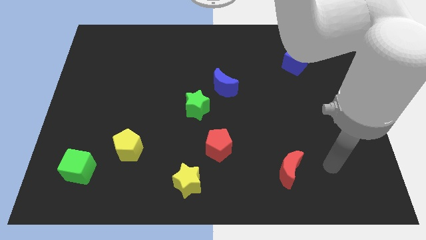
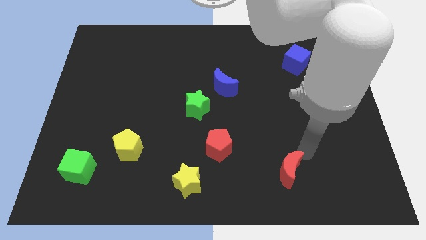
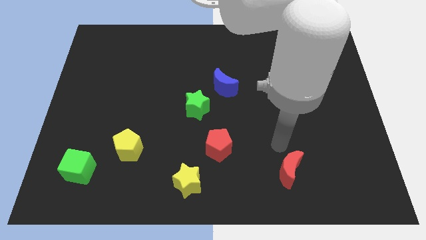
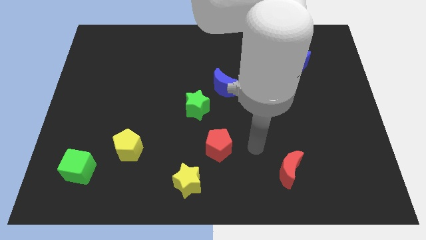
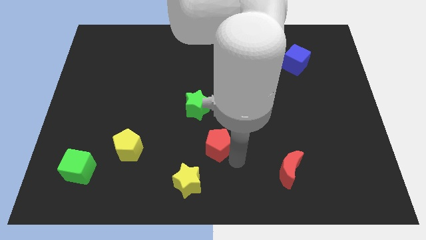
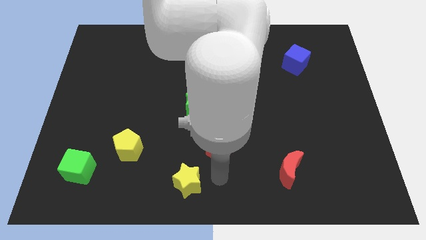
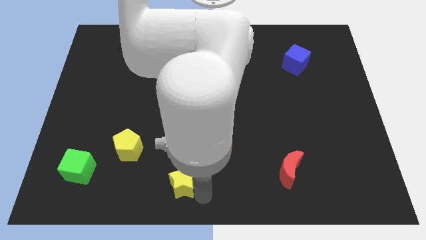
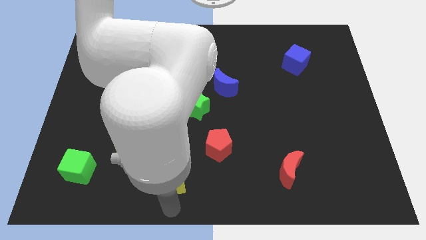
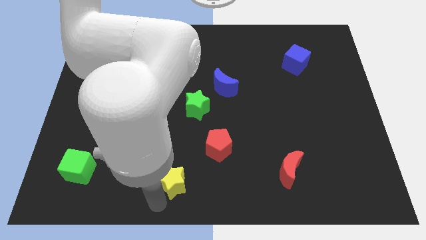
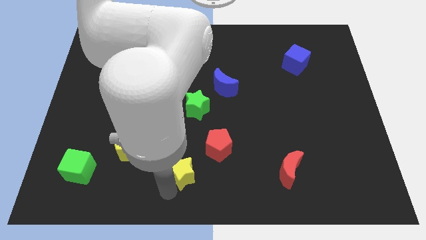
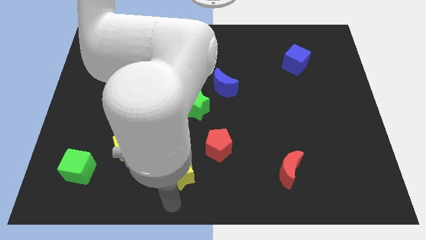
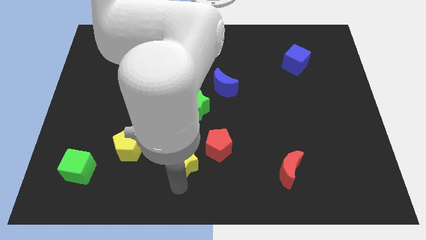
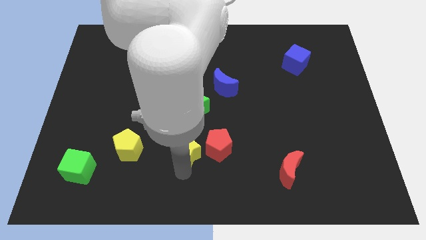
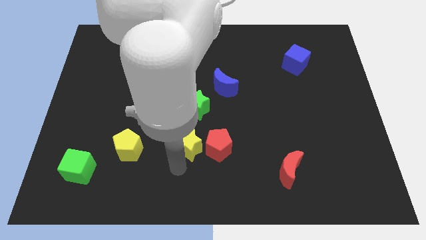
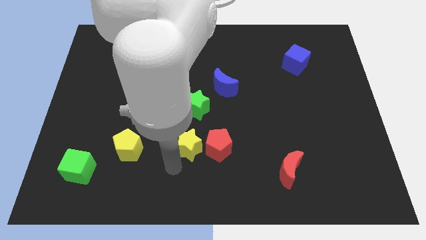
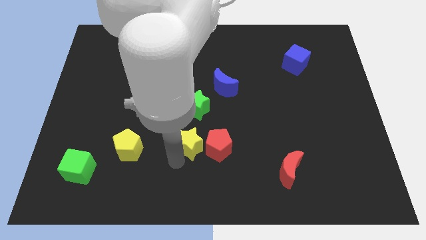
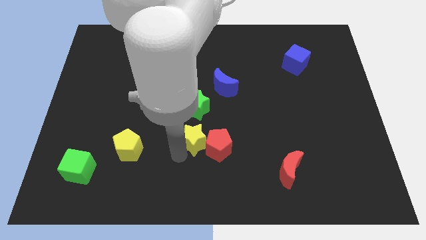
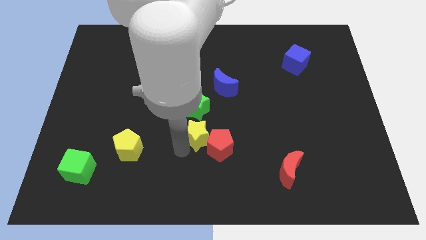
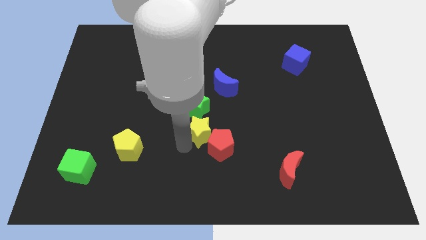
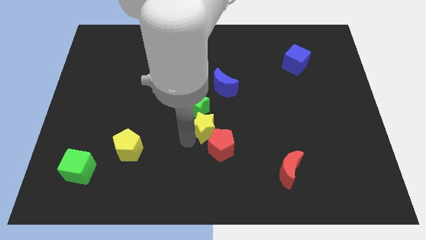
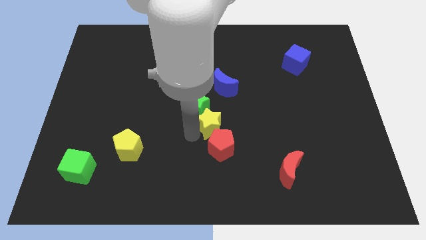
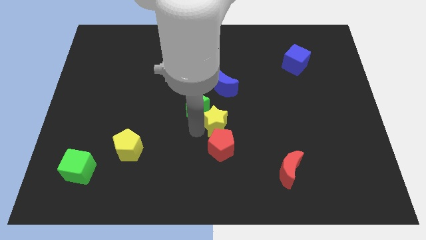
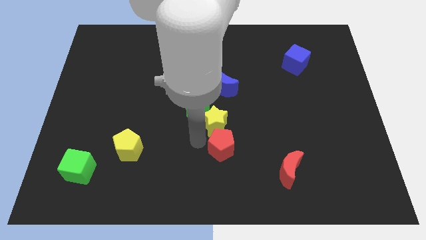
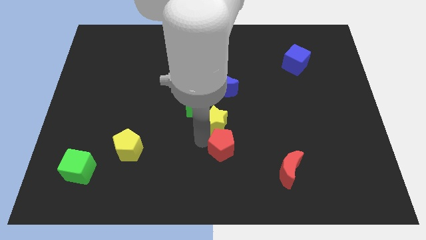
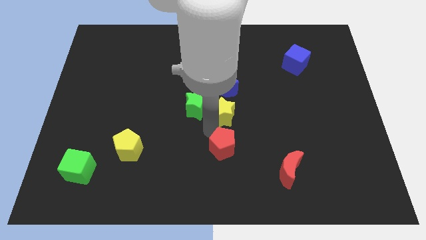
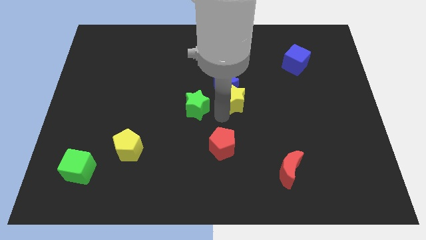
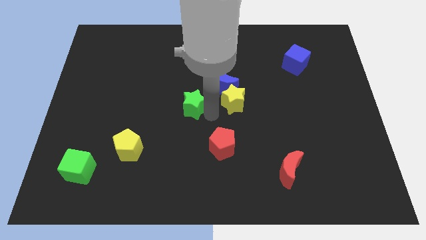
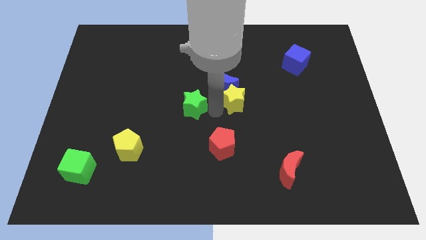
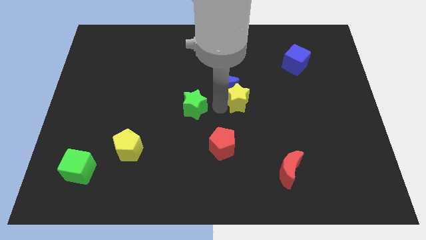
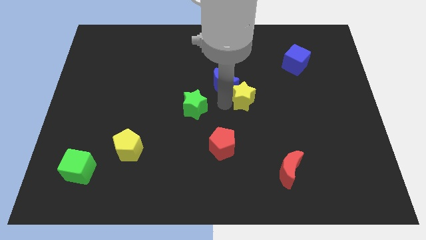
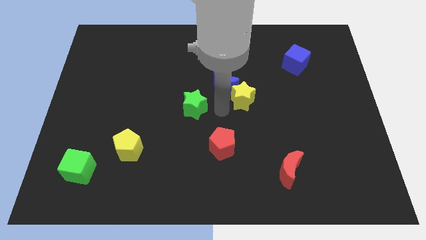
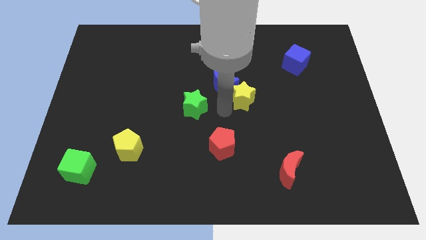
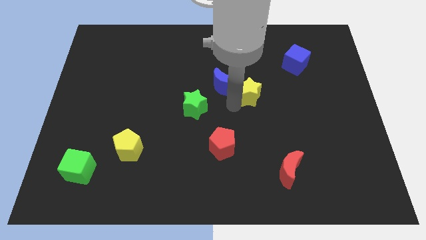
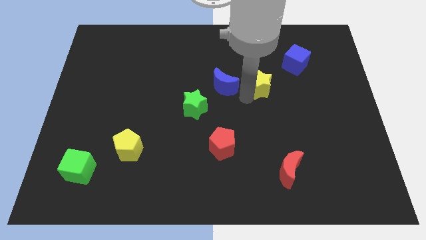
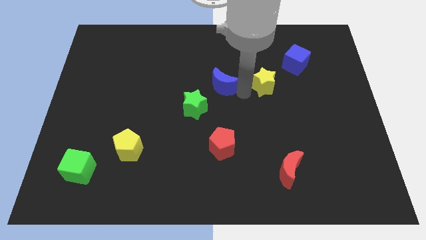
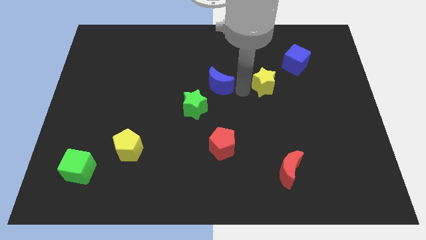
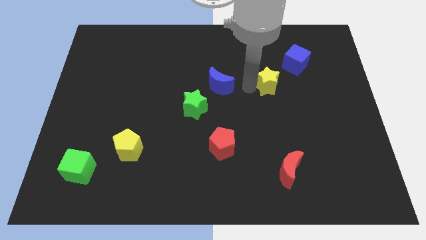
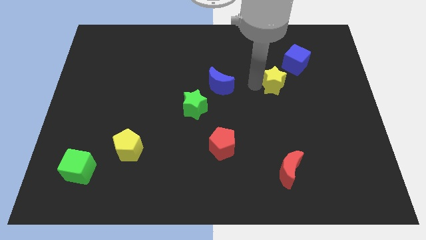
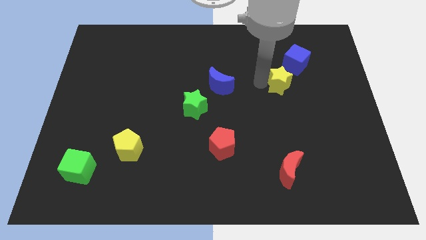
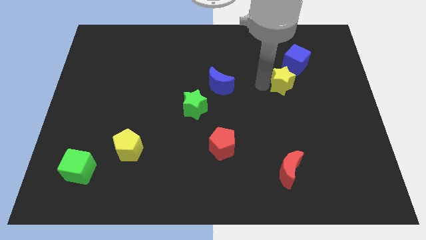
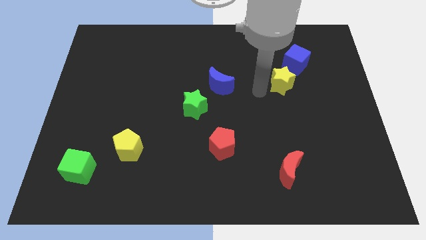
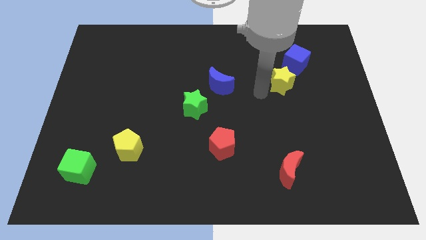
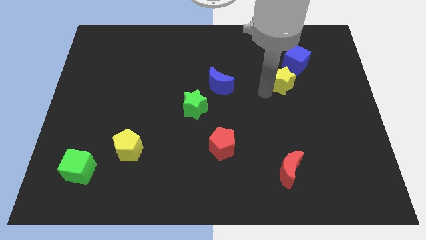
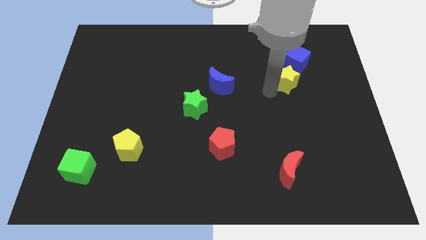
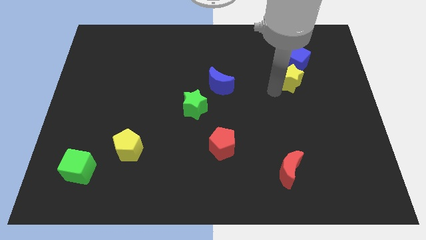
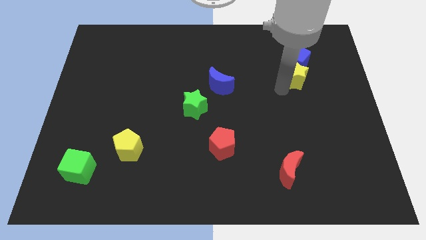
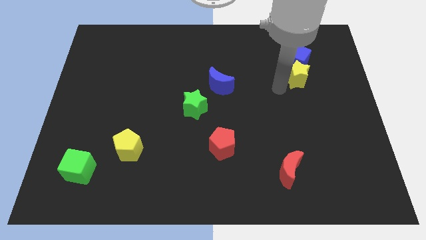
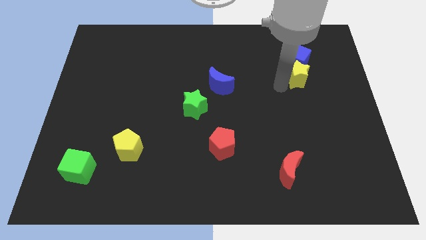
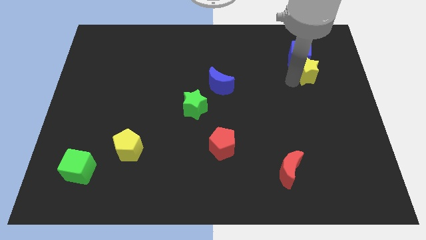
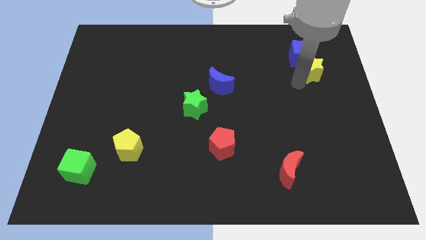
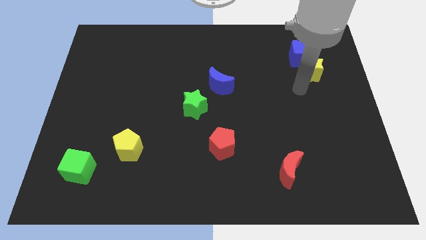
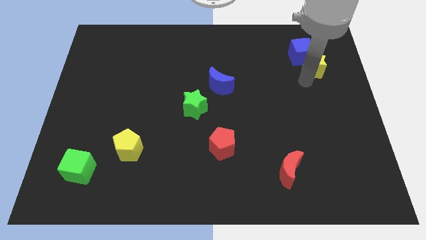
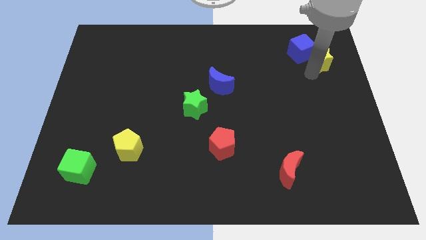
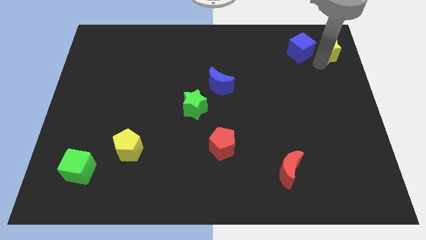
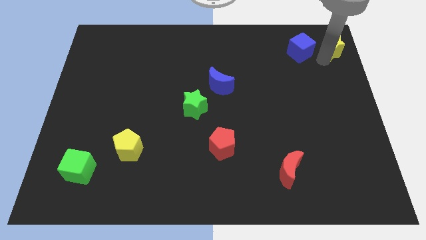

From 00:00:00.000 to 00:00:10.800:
move the yellow star to the upper right corner

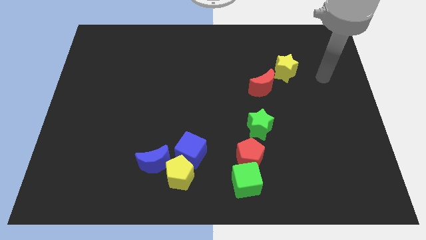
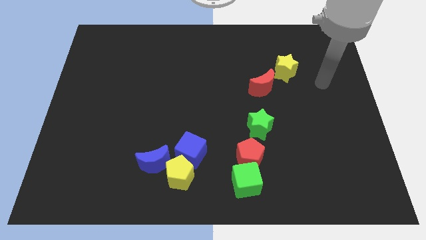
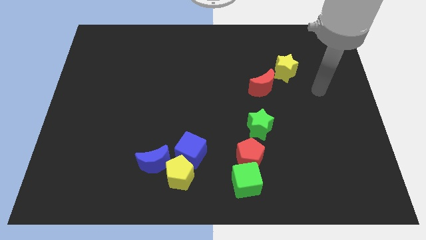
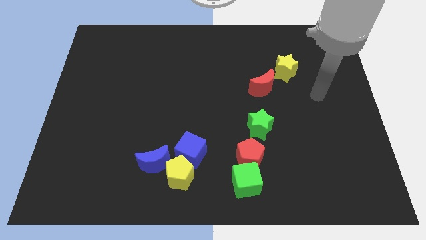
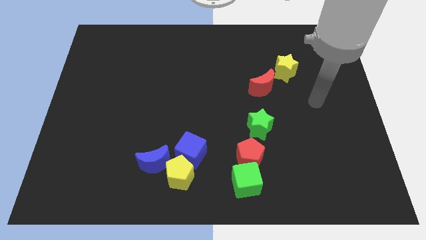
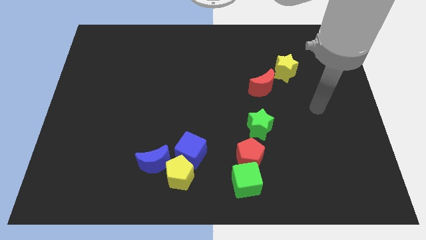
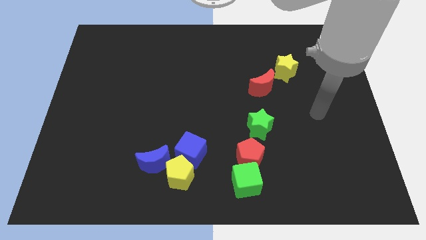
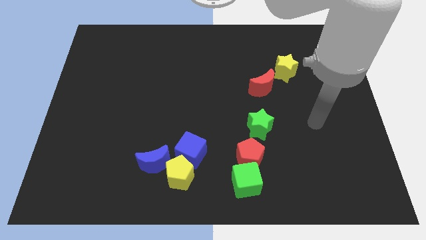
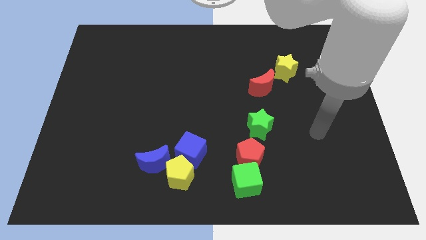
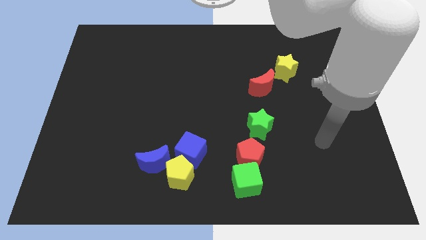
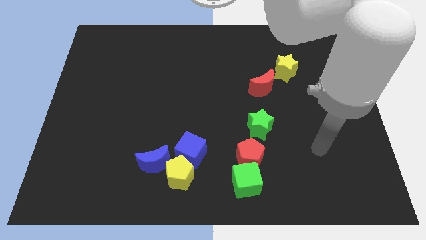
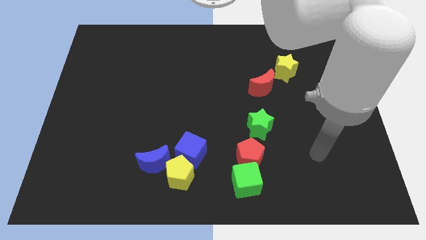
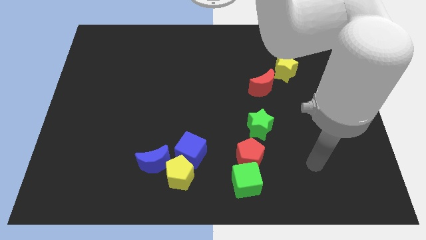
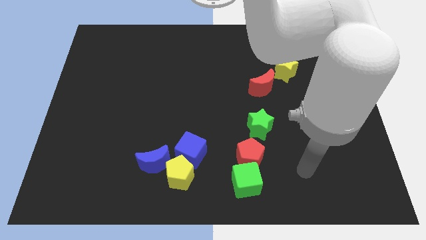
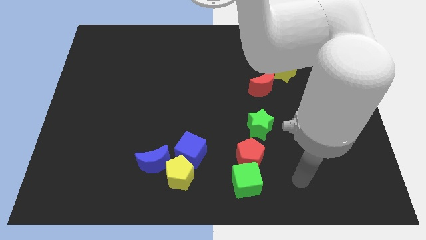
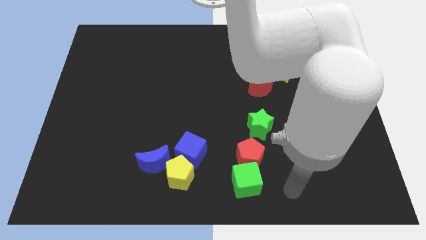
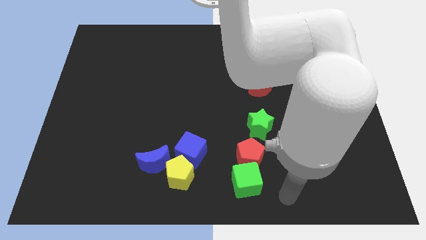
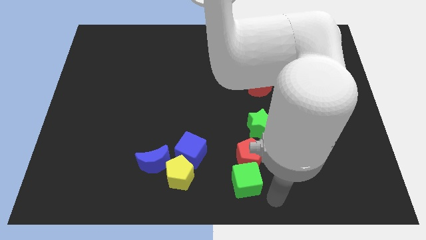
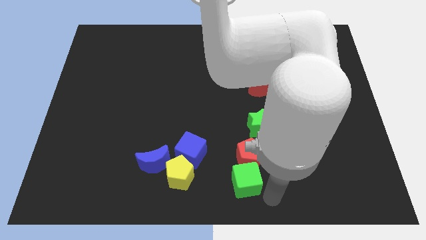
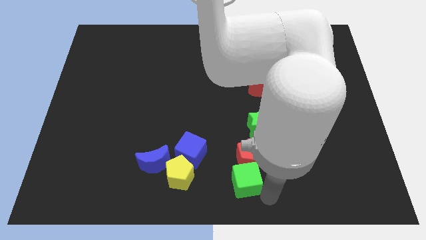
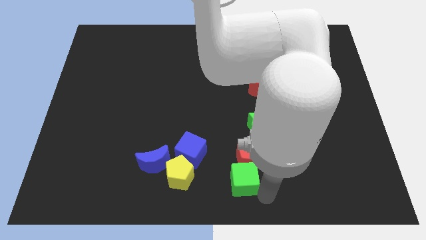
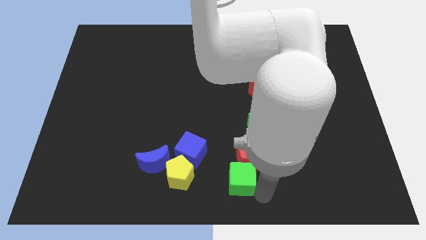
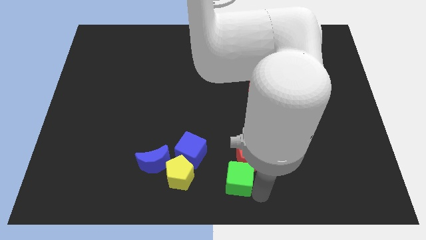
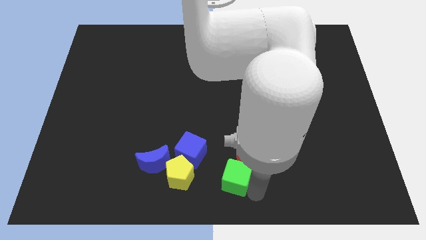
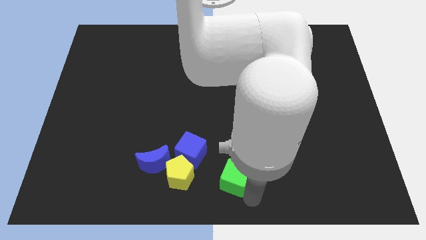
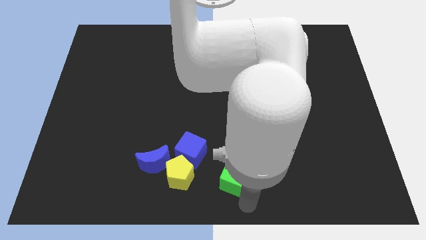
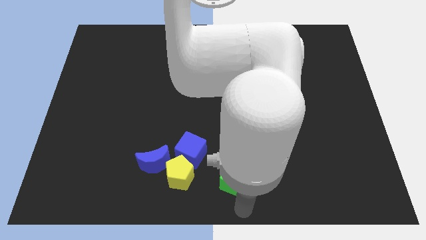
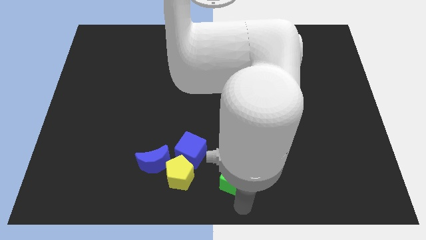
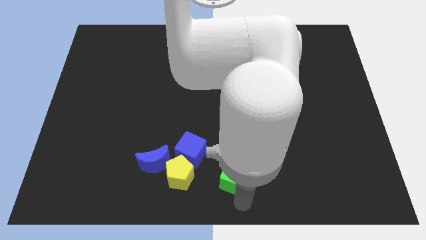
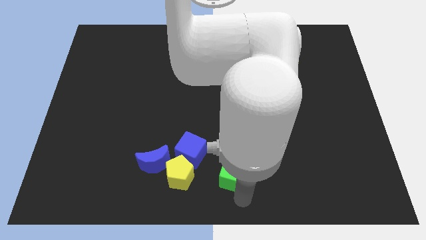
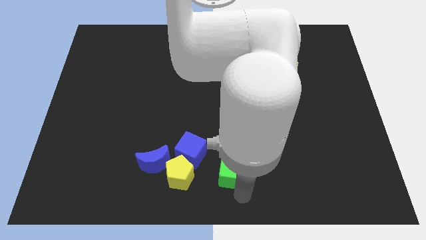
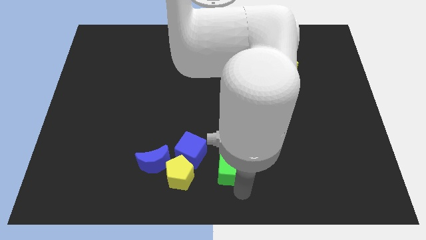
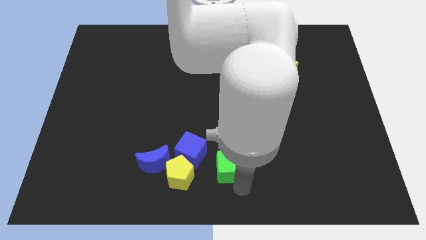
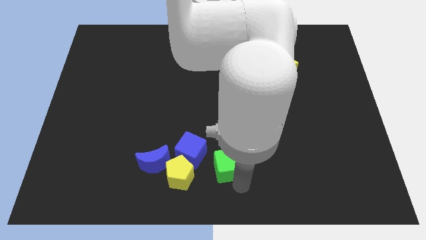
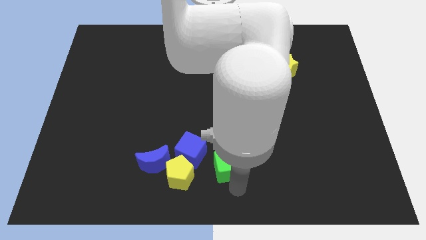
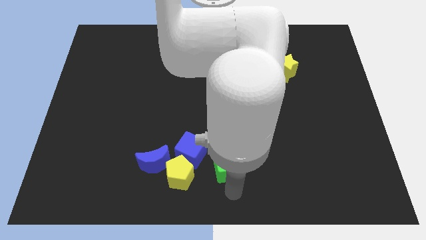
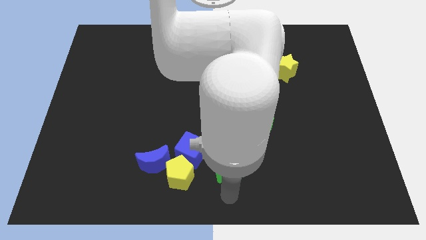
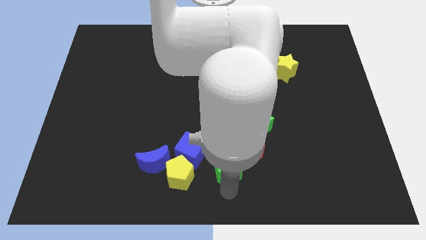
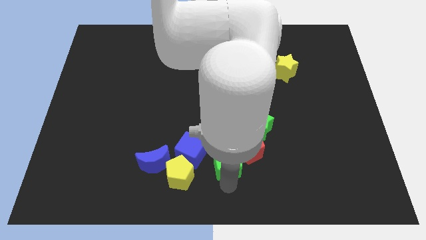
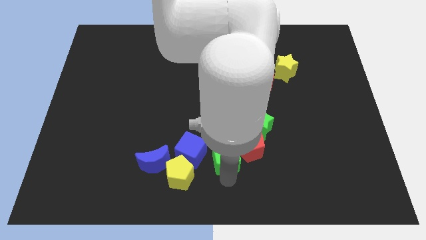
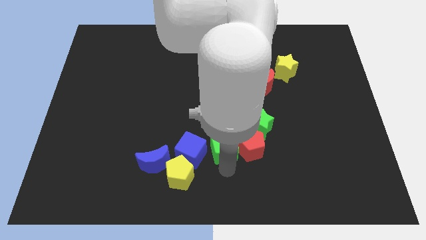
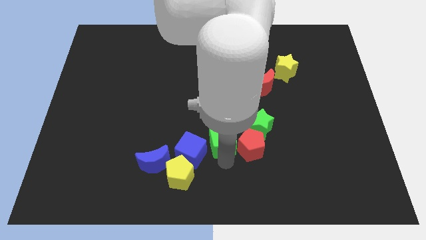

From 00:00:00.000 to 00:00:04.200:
push the green cube to the center of the board
